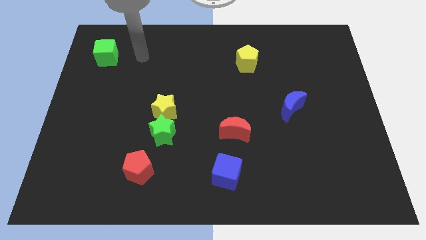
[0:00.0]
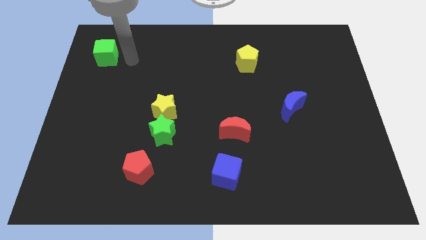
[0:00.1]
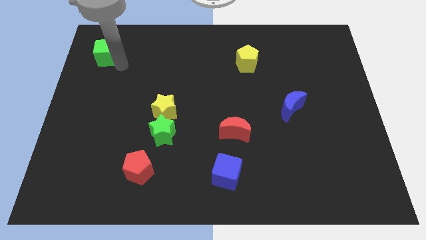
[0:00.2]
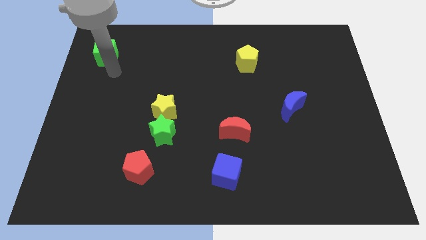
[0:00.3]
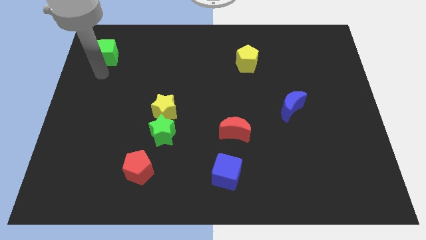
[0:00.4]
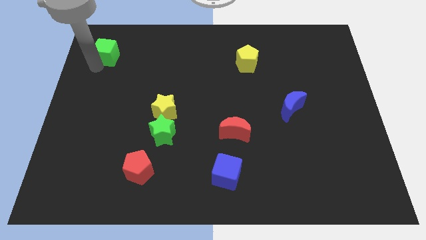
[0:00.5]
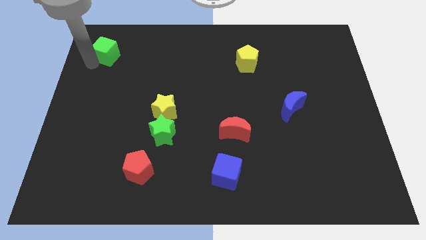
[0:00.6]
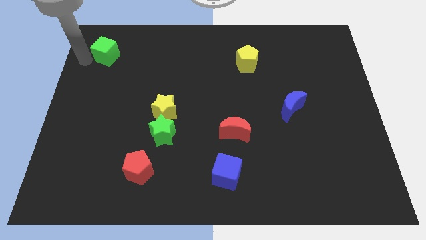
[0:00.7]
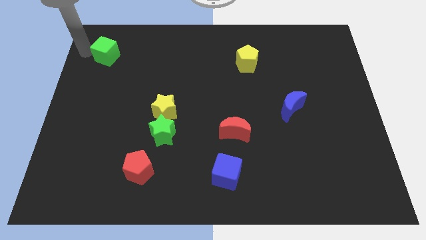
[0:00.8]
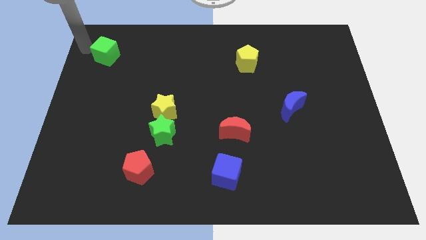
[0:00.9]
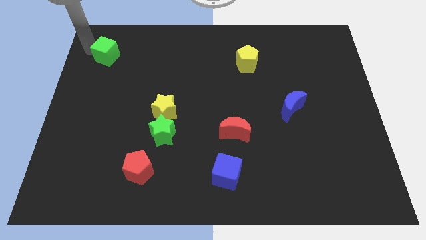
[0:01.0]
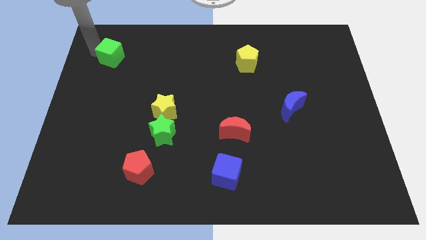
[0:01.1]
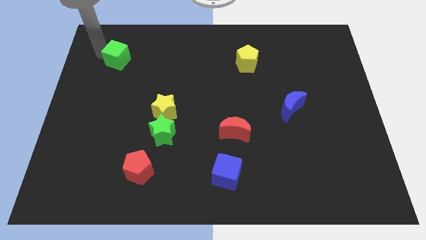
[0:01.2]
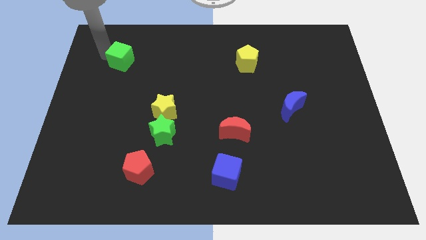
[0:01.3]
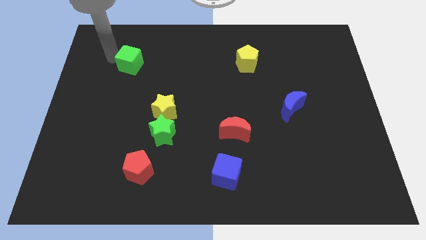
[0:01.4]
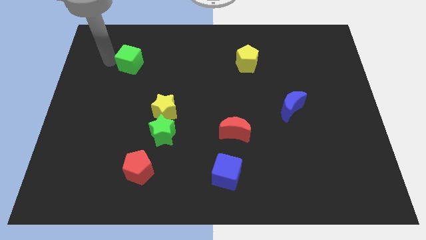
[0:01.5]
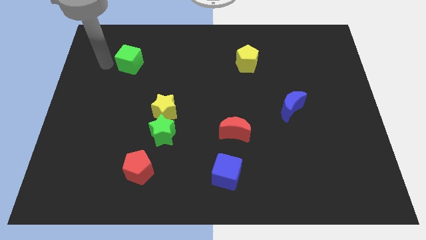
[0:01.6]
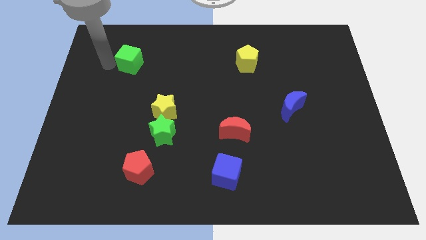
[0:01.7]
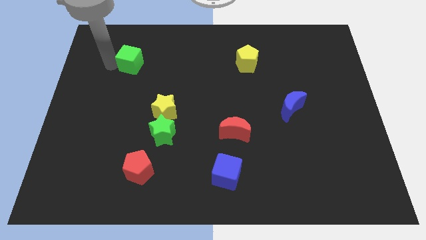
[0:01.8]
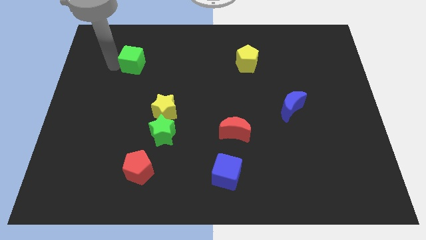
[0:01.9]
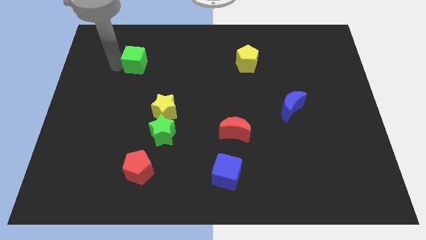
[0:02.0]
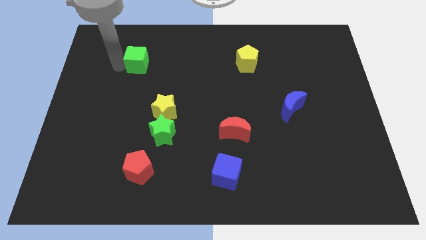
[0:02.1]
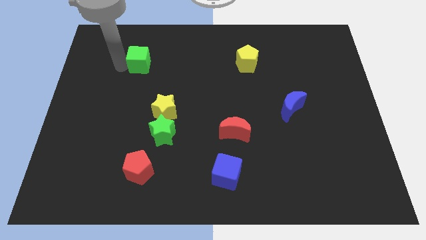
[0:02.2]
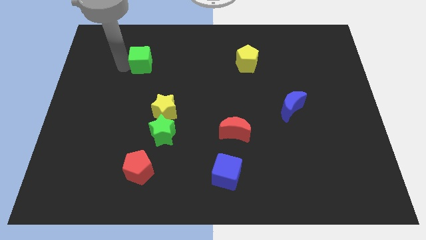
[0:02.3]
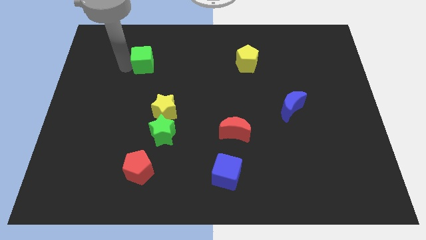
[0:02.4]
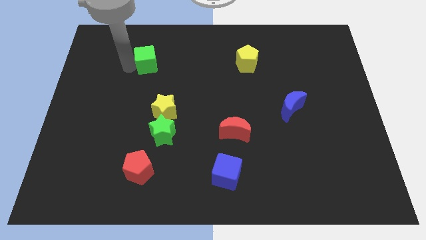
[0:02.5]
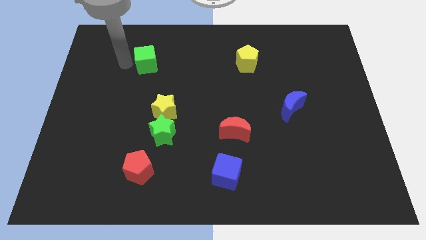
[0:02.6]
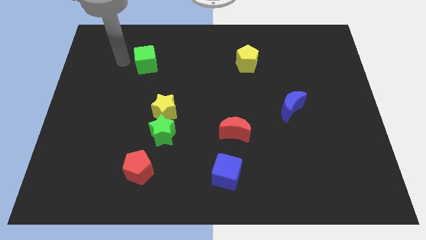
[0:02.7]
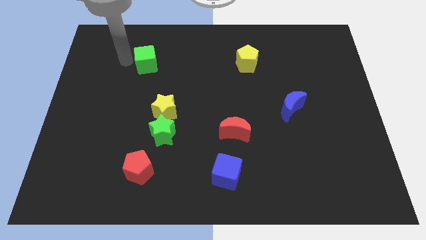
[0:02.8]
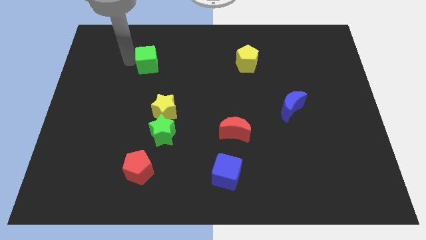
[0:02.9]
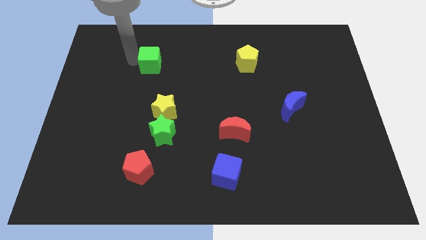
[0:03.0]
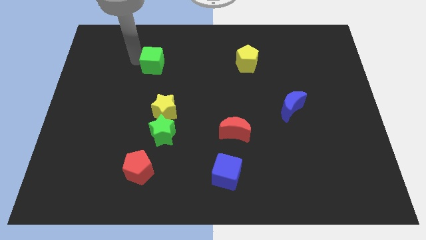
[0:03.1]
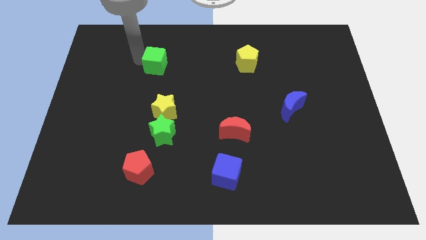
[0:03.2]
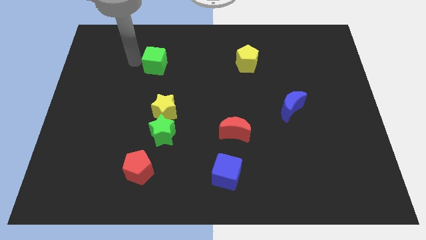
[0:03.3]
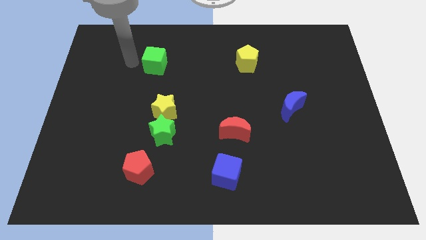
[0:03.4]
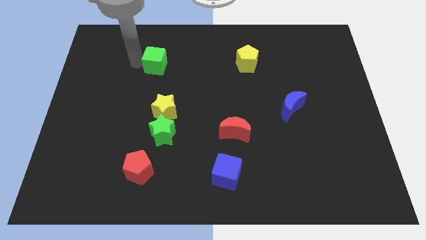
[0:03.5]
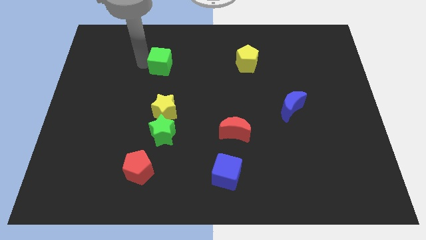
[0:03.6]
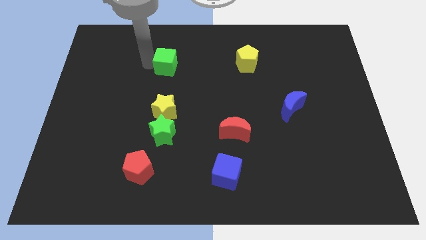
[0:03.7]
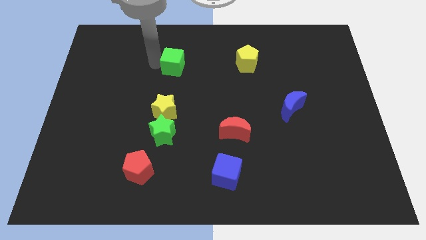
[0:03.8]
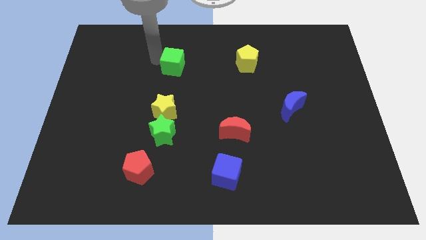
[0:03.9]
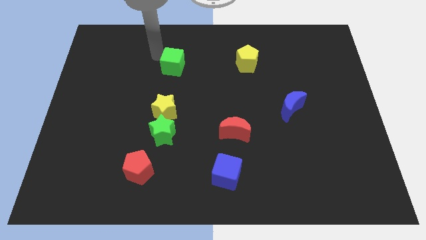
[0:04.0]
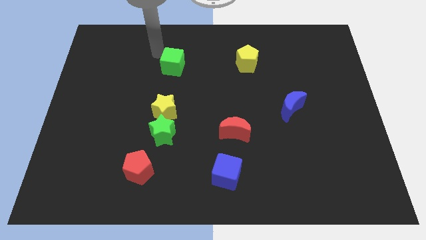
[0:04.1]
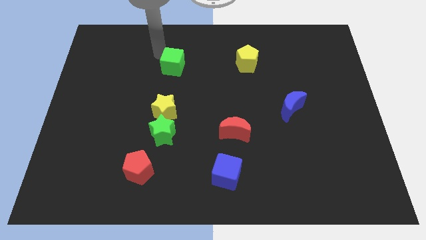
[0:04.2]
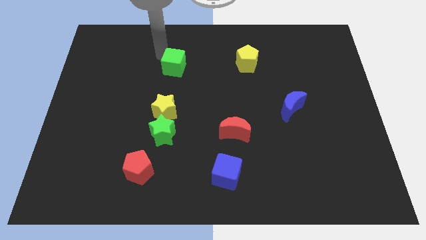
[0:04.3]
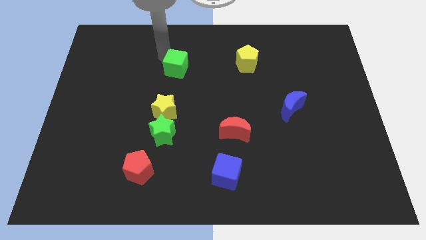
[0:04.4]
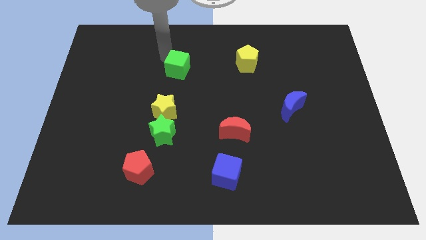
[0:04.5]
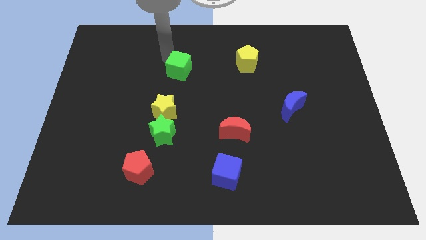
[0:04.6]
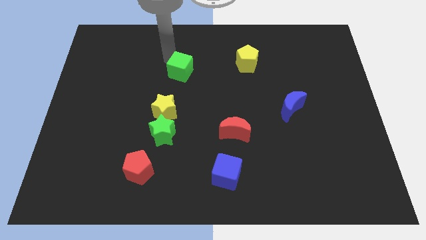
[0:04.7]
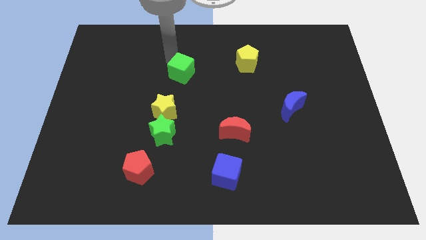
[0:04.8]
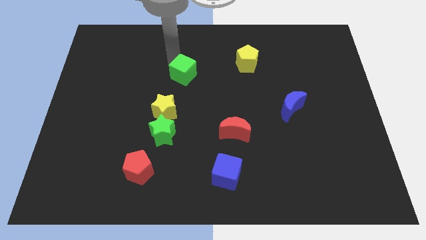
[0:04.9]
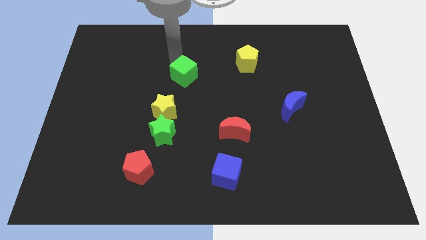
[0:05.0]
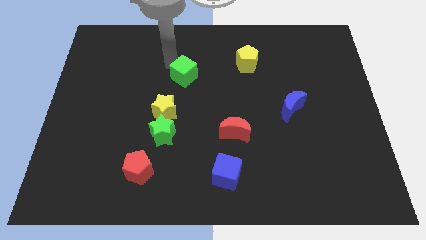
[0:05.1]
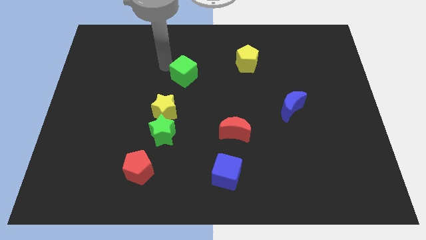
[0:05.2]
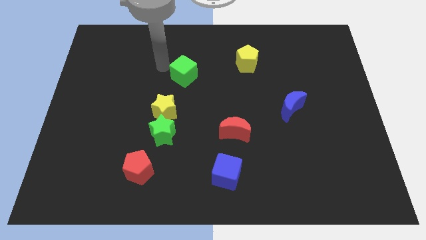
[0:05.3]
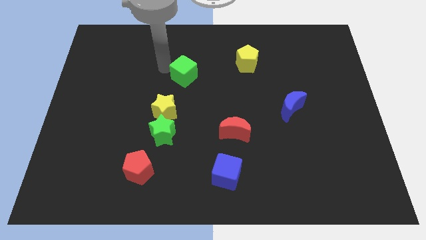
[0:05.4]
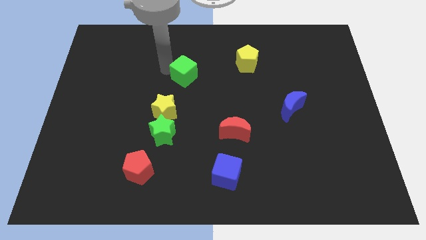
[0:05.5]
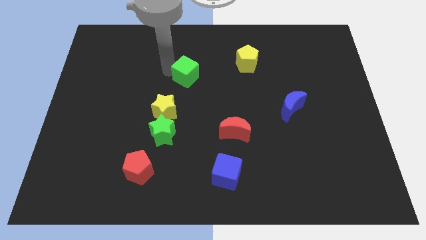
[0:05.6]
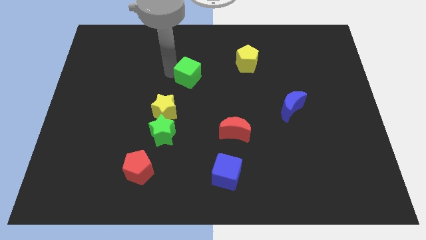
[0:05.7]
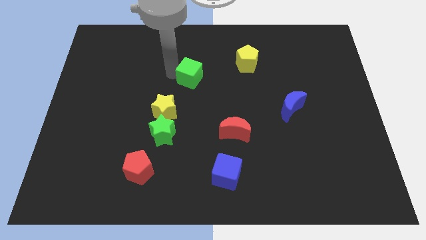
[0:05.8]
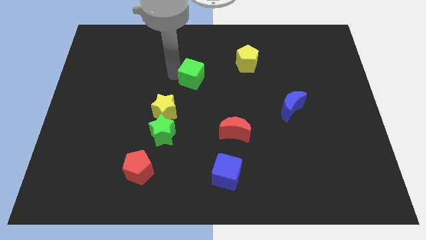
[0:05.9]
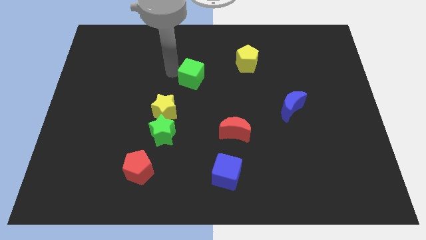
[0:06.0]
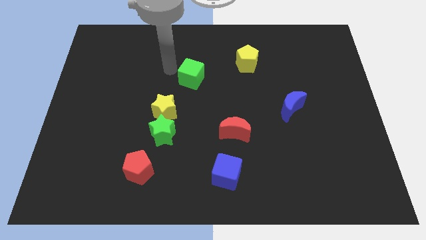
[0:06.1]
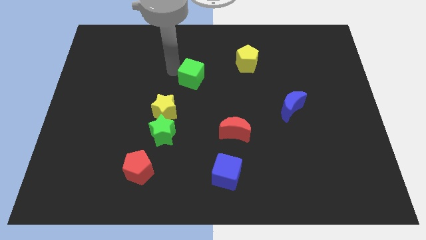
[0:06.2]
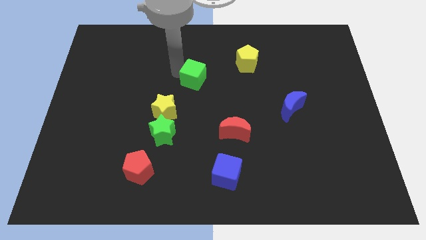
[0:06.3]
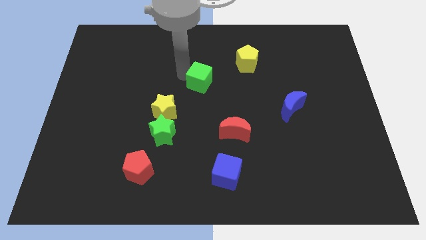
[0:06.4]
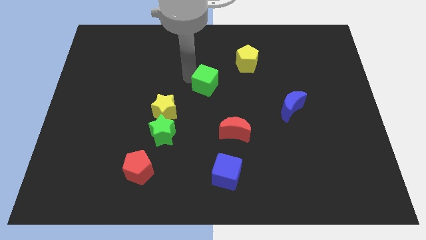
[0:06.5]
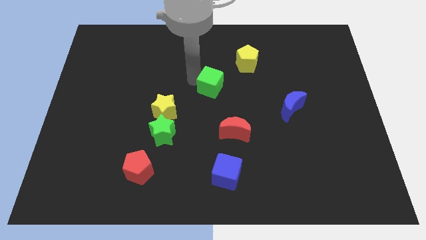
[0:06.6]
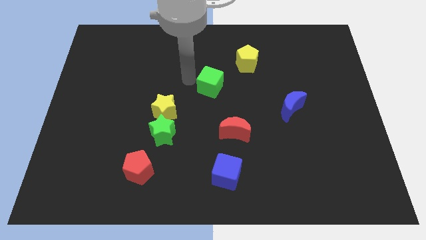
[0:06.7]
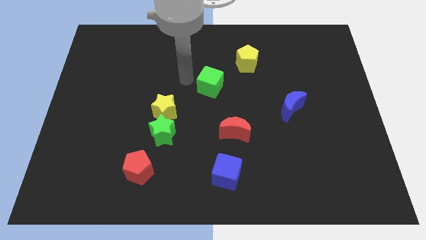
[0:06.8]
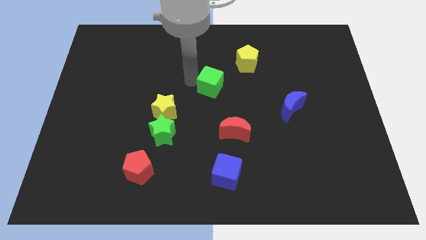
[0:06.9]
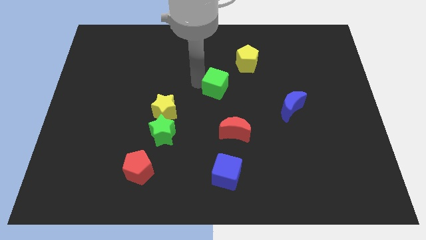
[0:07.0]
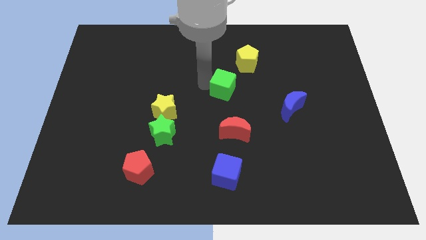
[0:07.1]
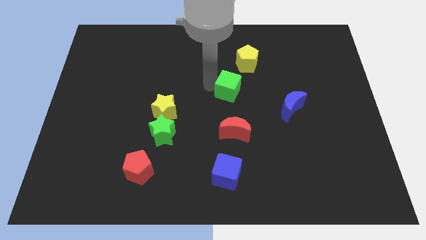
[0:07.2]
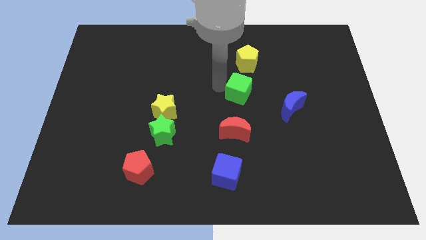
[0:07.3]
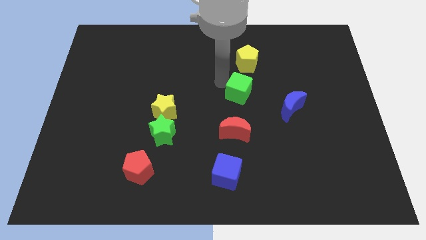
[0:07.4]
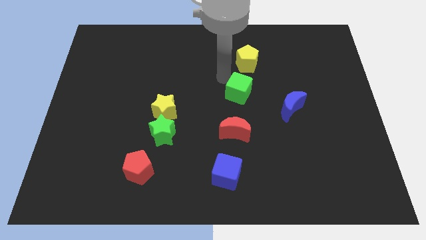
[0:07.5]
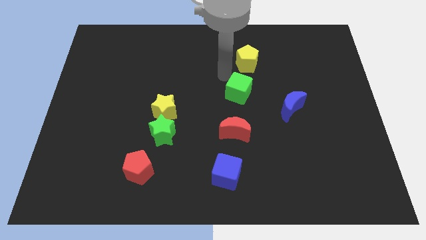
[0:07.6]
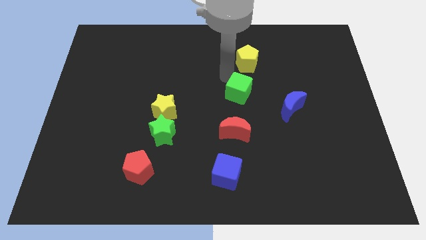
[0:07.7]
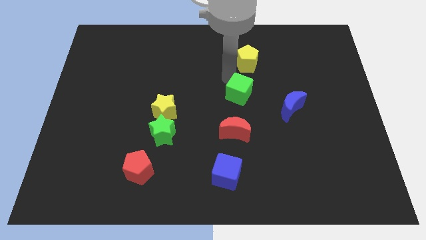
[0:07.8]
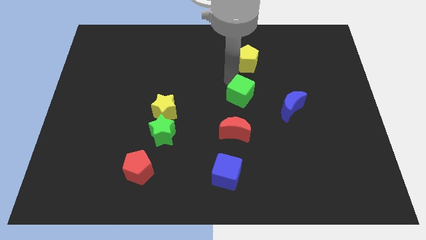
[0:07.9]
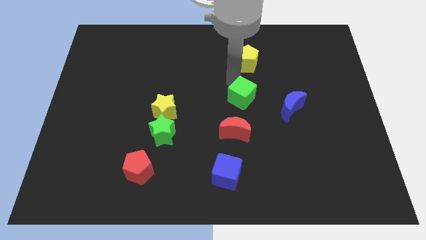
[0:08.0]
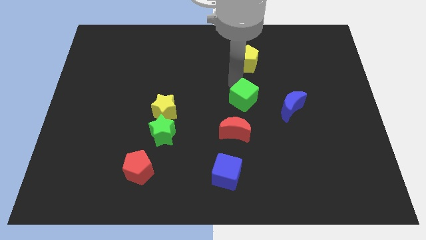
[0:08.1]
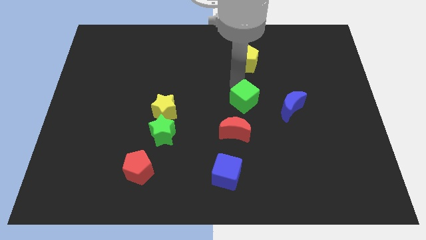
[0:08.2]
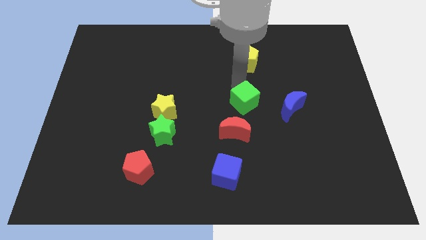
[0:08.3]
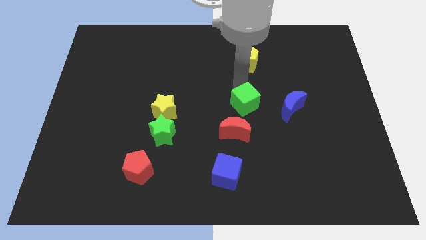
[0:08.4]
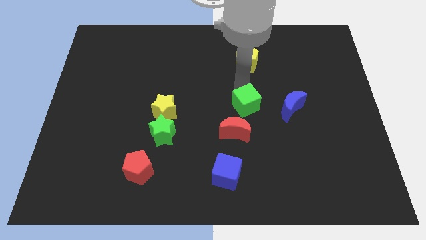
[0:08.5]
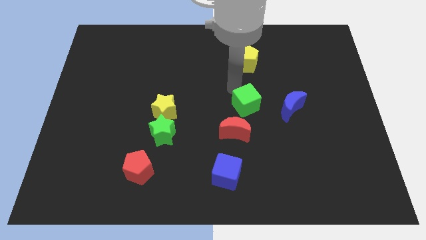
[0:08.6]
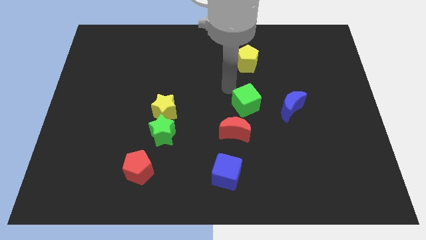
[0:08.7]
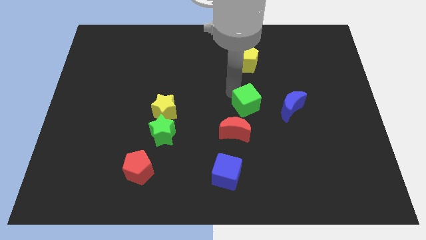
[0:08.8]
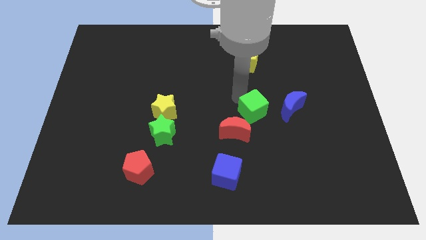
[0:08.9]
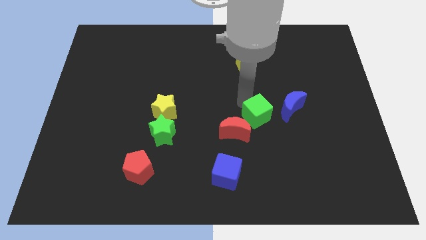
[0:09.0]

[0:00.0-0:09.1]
push the green cube to the bottom left of the blue moon
